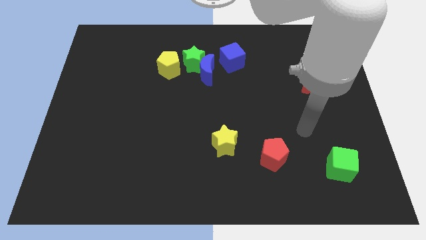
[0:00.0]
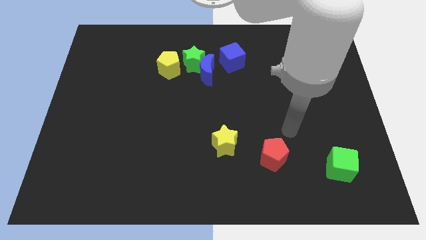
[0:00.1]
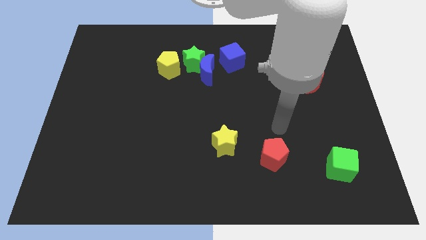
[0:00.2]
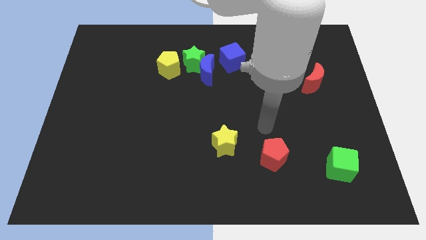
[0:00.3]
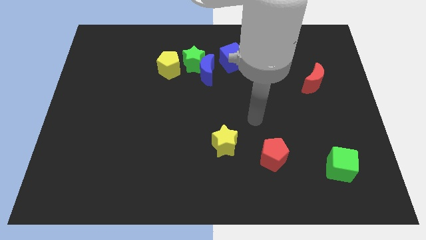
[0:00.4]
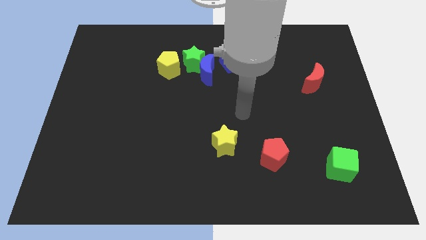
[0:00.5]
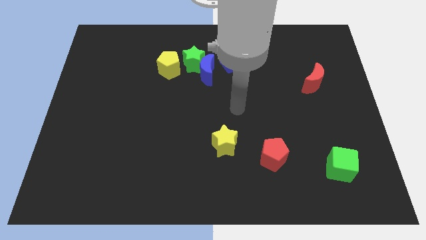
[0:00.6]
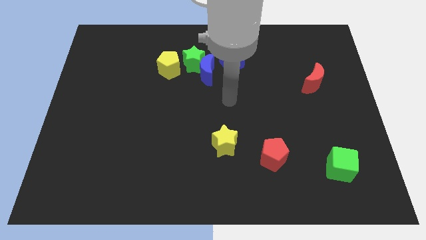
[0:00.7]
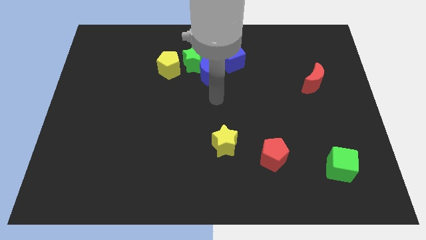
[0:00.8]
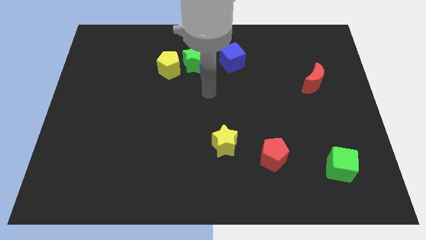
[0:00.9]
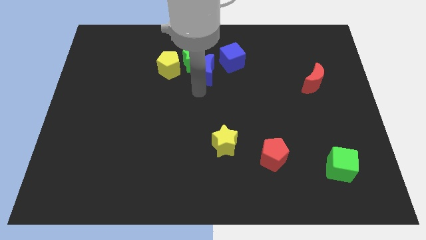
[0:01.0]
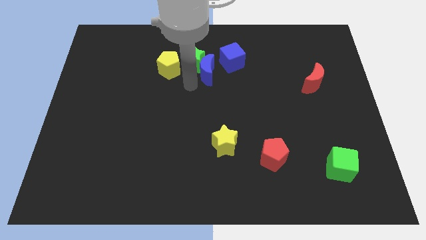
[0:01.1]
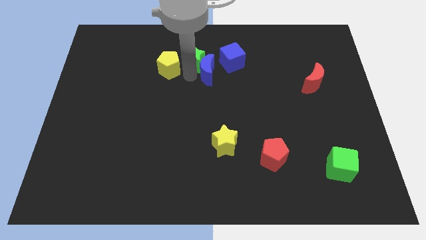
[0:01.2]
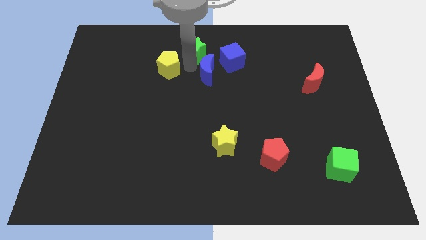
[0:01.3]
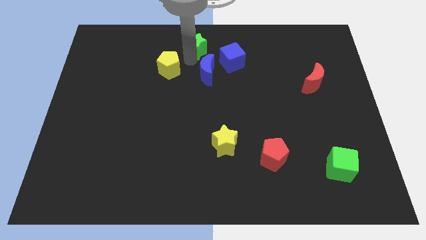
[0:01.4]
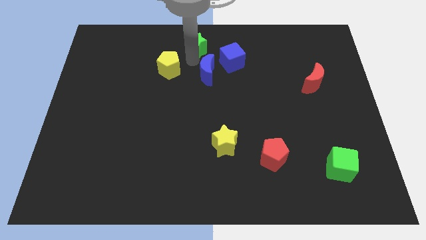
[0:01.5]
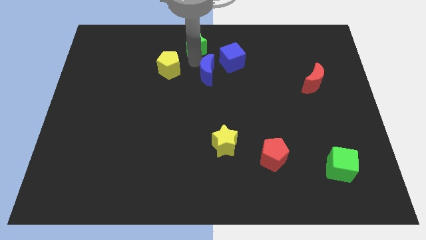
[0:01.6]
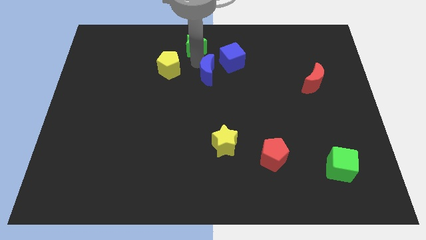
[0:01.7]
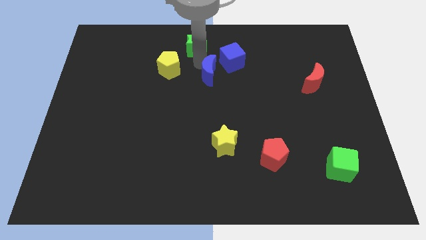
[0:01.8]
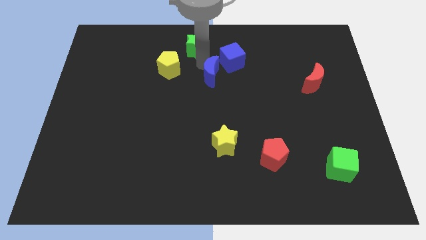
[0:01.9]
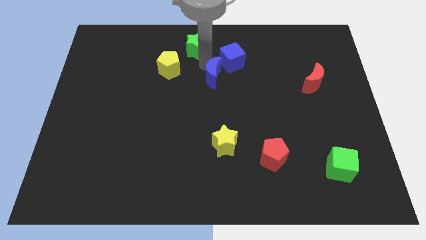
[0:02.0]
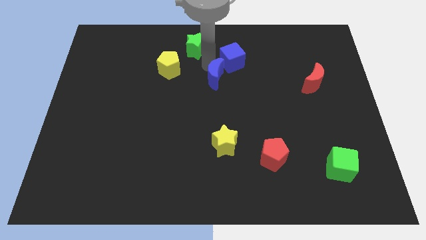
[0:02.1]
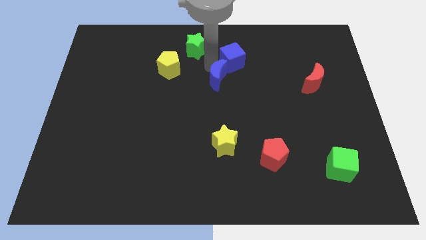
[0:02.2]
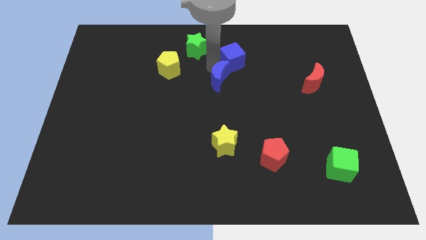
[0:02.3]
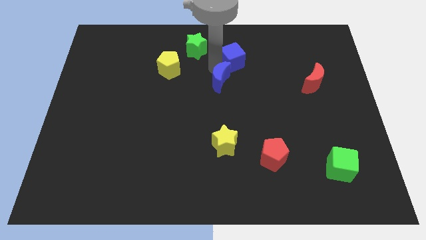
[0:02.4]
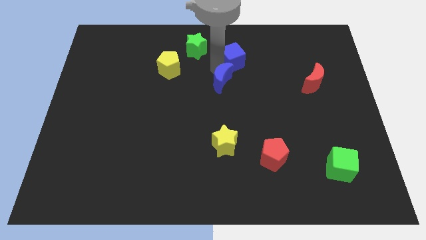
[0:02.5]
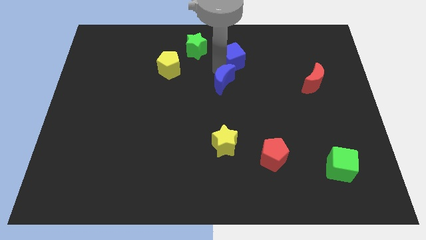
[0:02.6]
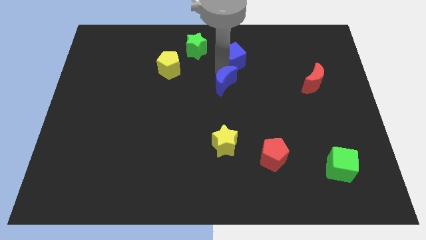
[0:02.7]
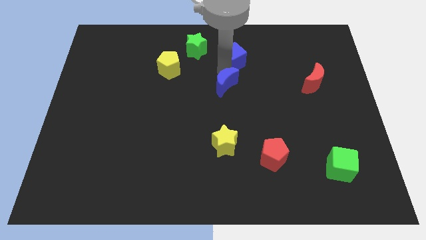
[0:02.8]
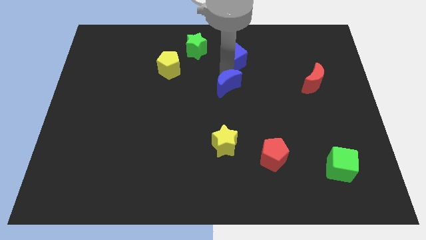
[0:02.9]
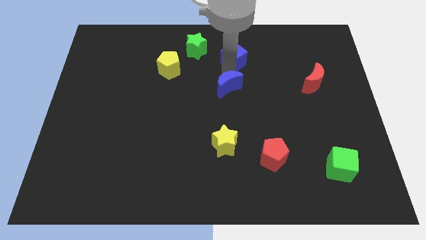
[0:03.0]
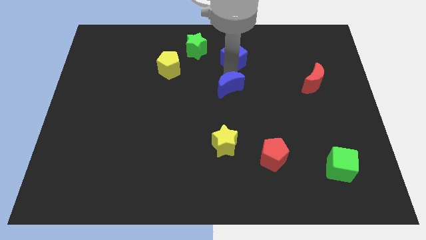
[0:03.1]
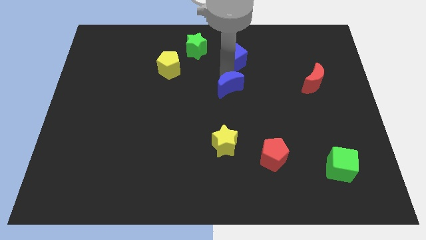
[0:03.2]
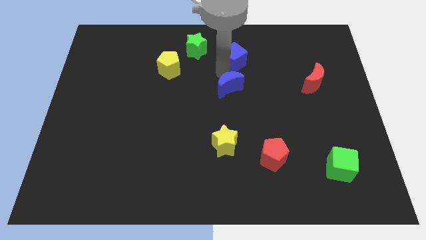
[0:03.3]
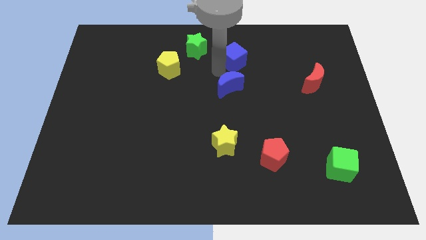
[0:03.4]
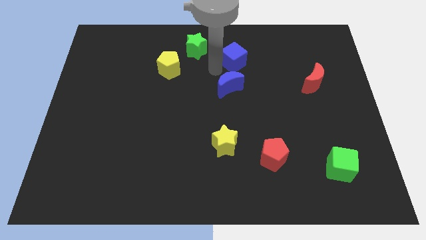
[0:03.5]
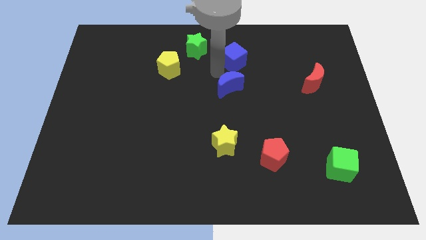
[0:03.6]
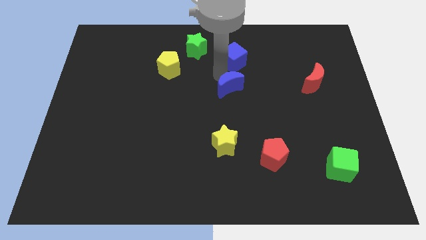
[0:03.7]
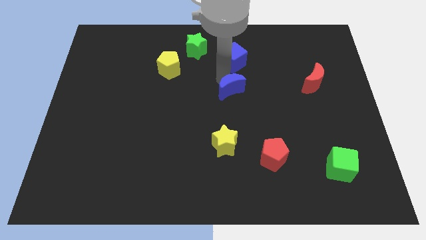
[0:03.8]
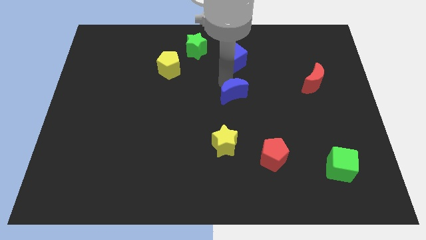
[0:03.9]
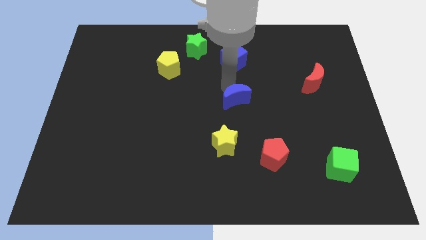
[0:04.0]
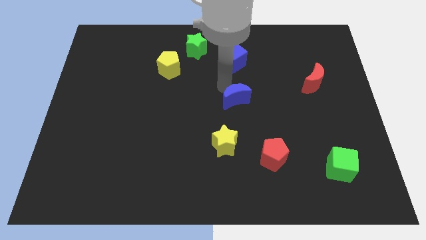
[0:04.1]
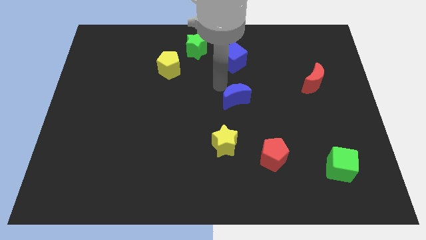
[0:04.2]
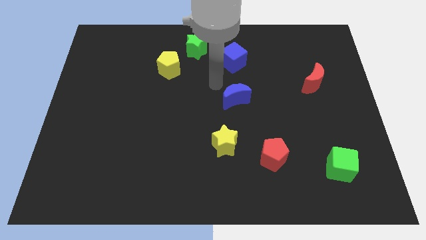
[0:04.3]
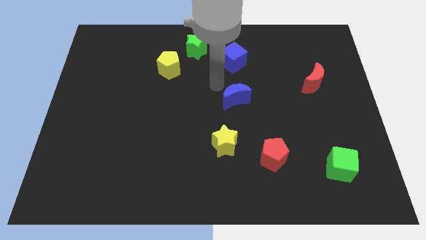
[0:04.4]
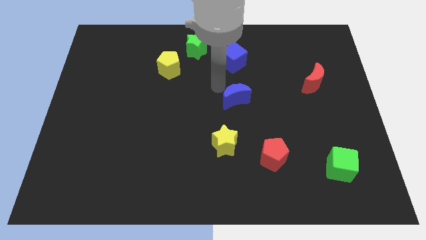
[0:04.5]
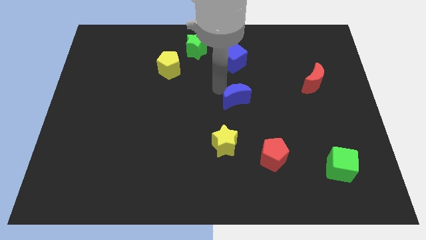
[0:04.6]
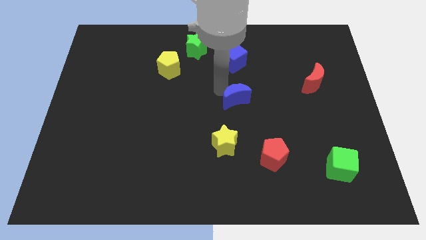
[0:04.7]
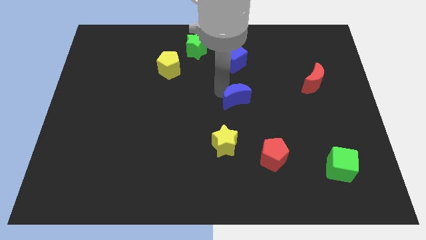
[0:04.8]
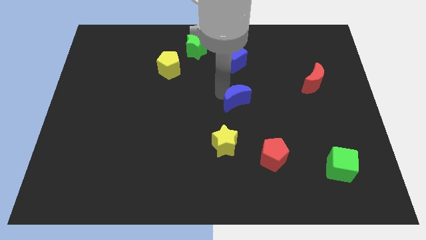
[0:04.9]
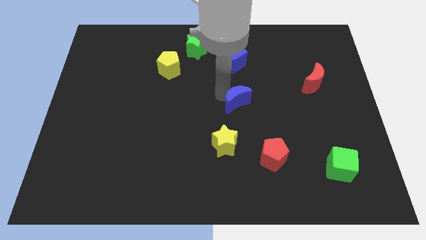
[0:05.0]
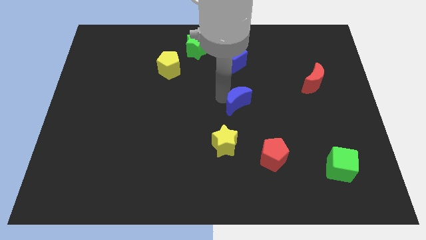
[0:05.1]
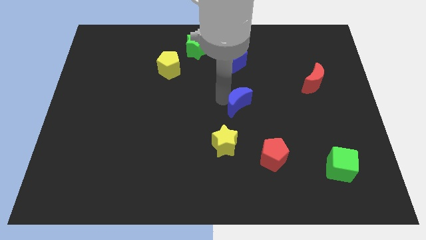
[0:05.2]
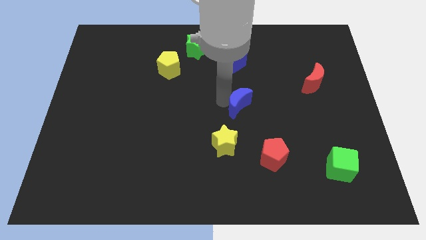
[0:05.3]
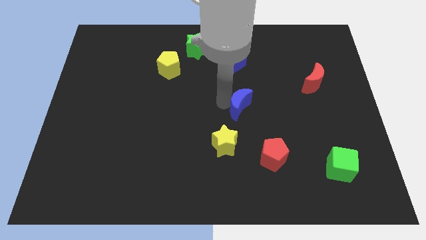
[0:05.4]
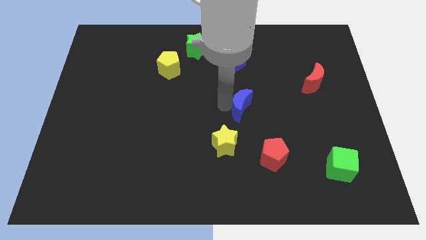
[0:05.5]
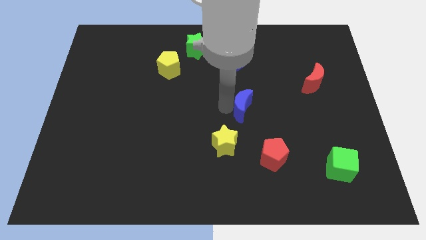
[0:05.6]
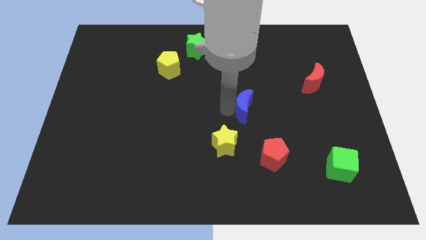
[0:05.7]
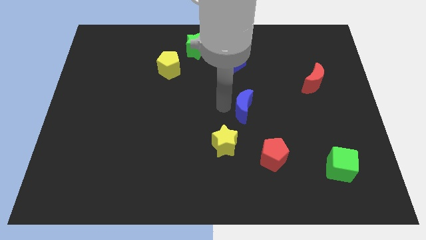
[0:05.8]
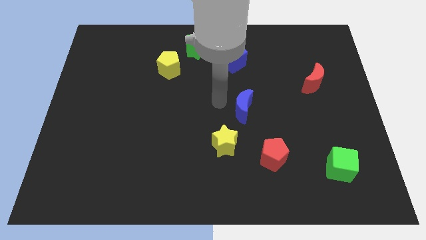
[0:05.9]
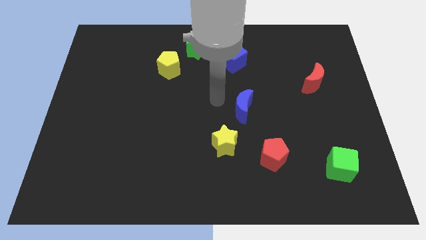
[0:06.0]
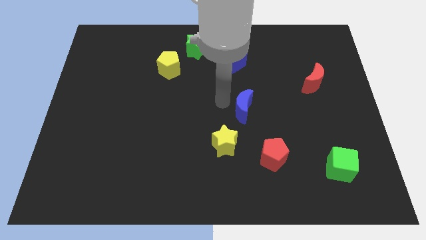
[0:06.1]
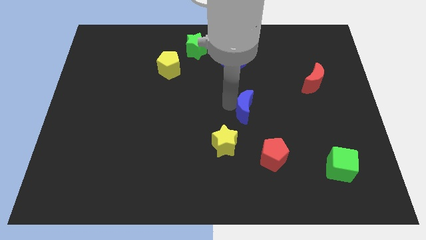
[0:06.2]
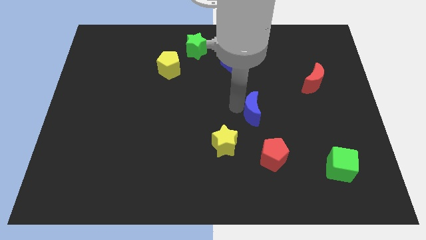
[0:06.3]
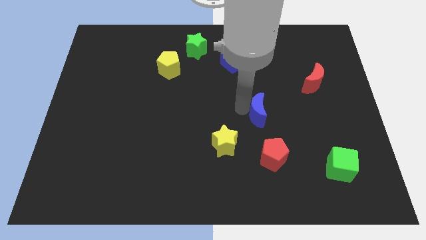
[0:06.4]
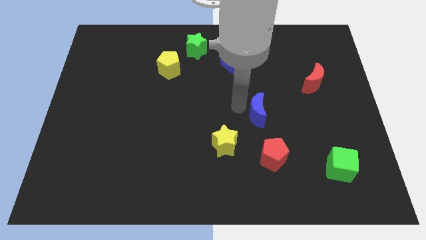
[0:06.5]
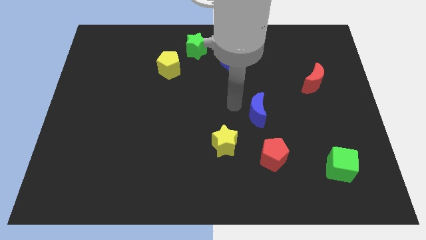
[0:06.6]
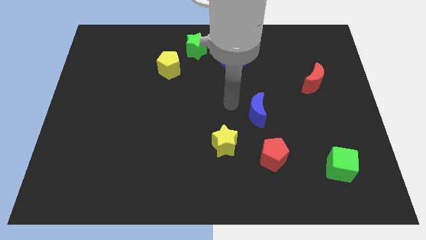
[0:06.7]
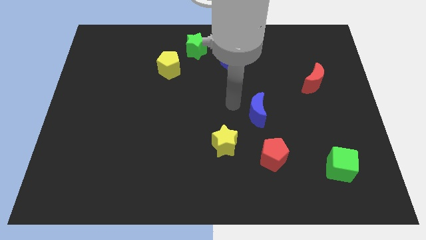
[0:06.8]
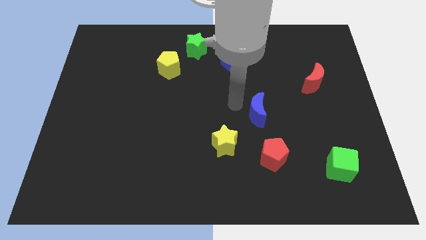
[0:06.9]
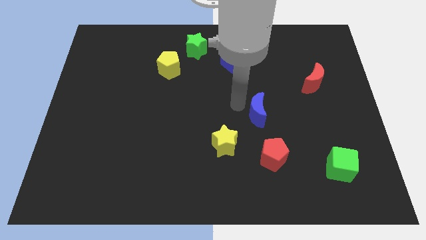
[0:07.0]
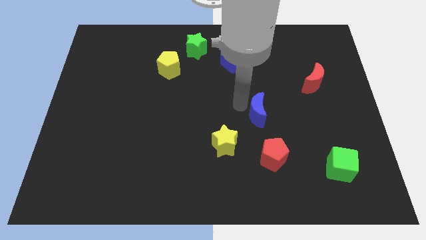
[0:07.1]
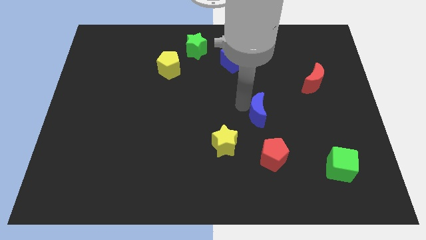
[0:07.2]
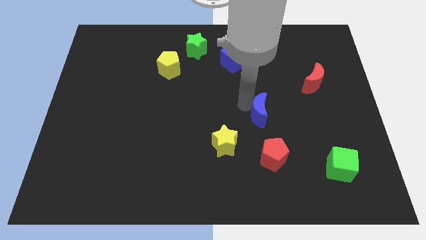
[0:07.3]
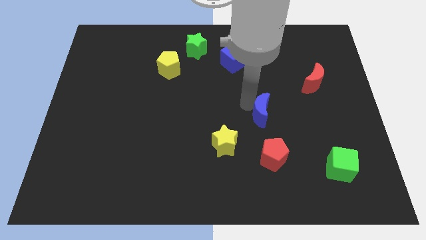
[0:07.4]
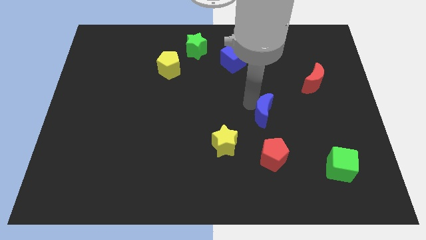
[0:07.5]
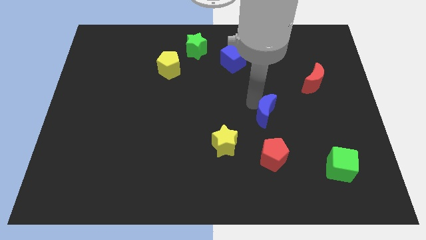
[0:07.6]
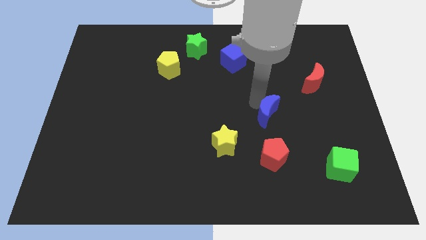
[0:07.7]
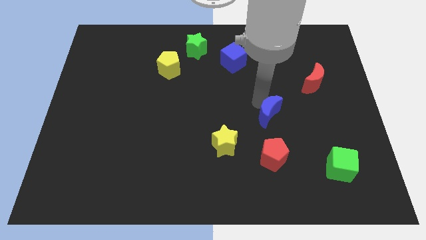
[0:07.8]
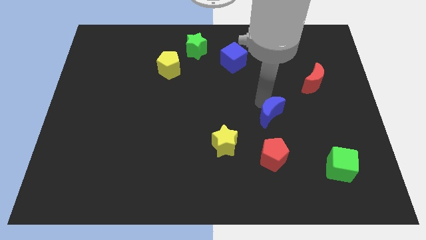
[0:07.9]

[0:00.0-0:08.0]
push the blue moon down and to the right diagonally
